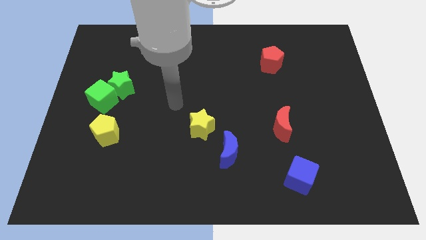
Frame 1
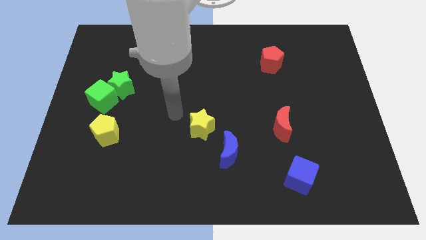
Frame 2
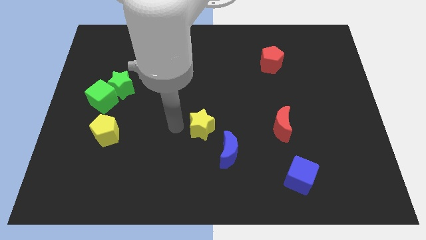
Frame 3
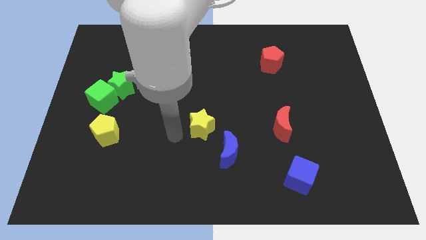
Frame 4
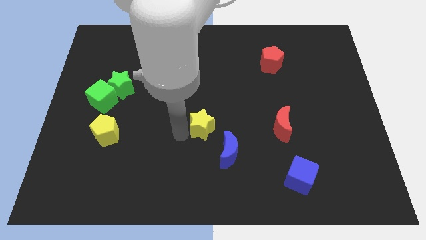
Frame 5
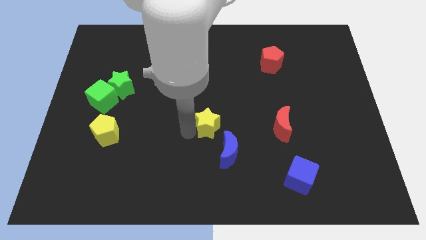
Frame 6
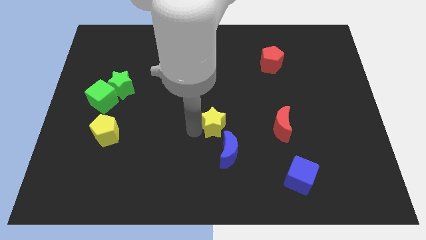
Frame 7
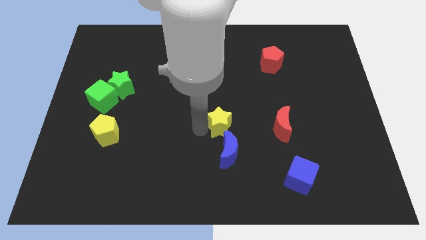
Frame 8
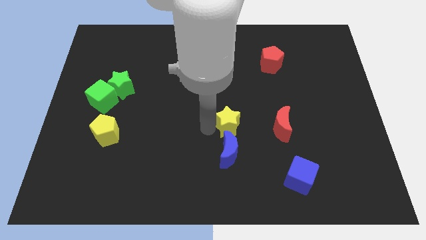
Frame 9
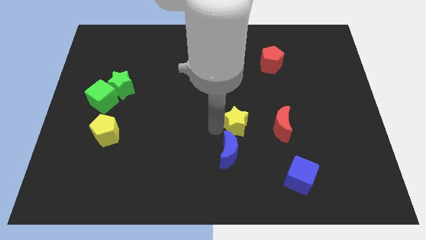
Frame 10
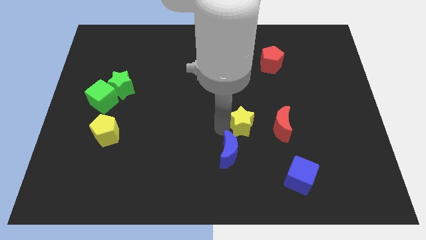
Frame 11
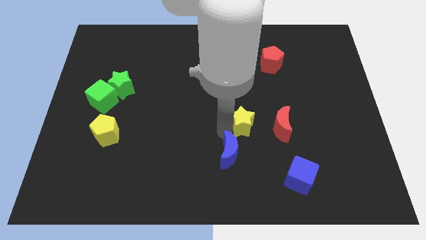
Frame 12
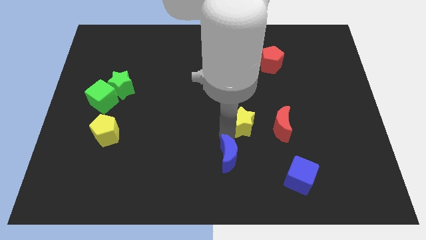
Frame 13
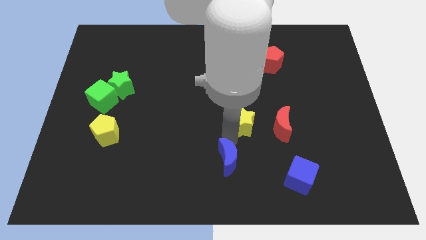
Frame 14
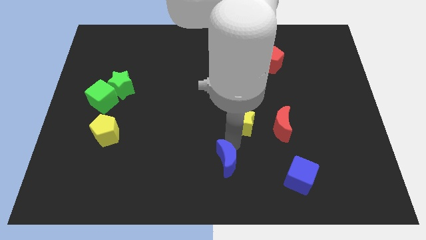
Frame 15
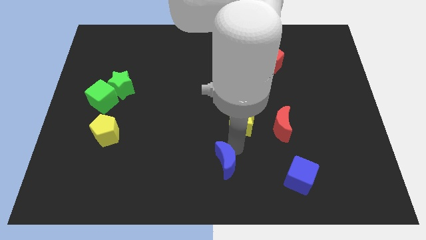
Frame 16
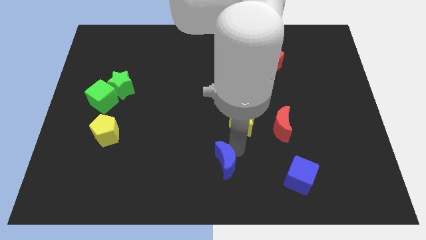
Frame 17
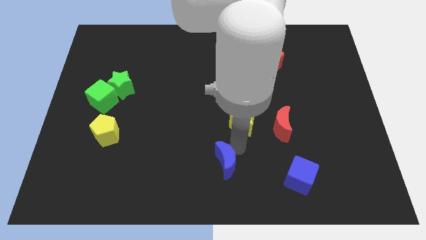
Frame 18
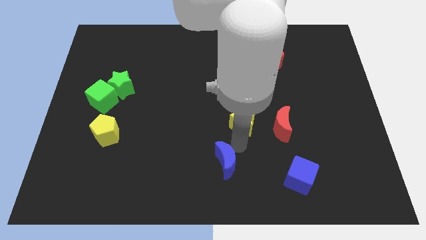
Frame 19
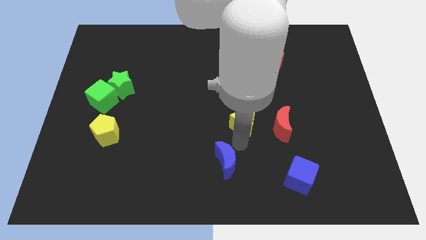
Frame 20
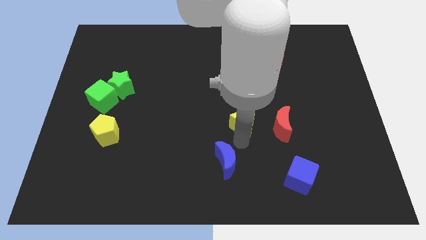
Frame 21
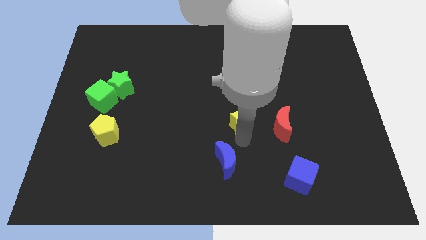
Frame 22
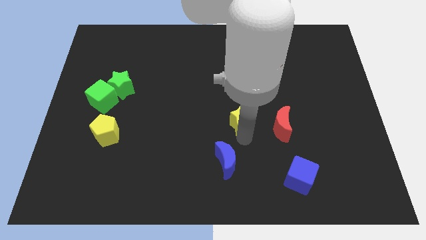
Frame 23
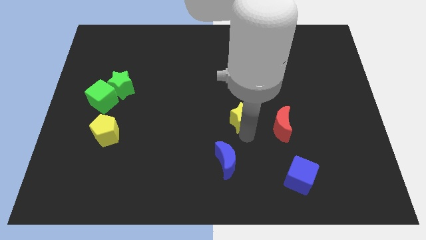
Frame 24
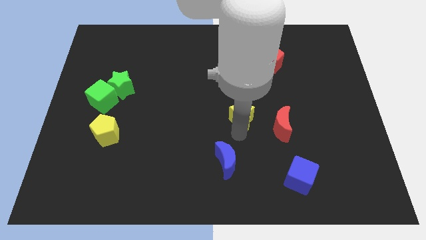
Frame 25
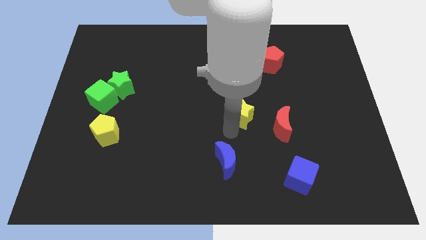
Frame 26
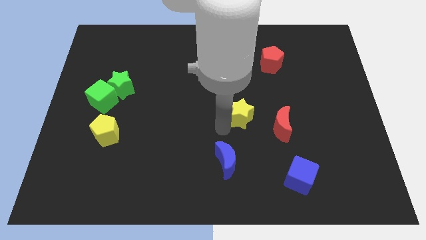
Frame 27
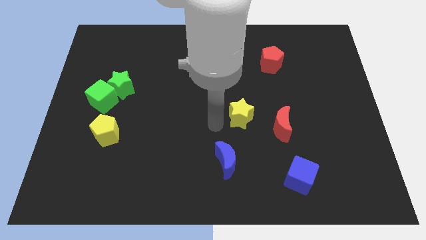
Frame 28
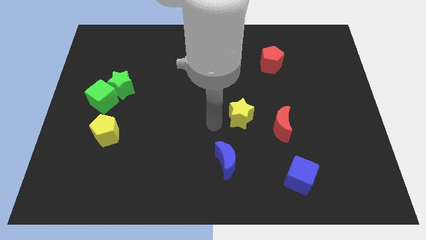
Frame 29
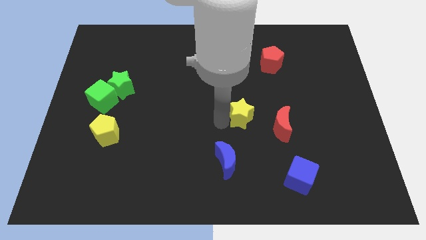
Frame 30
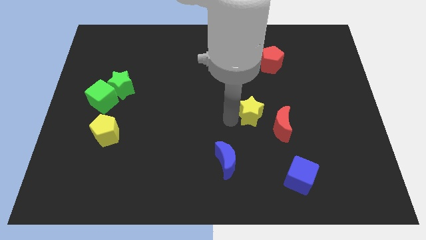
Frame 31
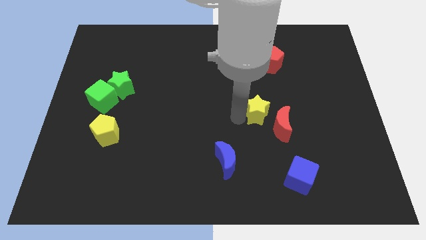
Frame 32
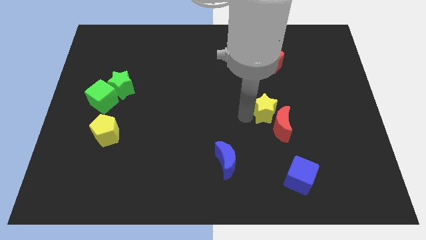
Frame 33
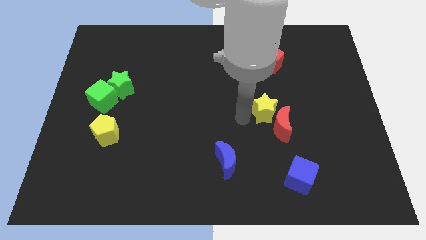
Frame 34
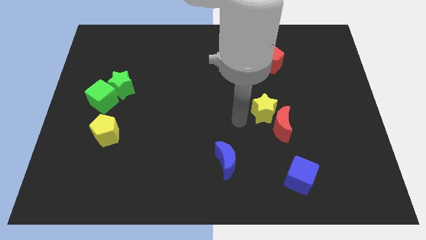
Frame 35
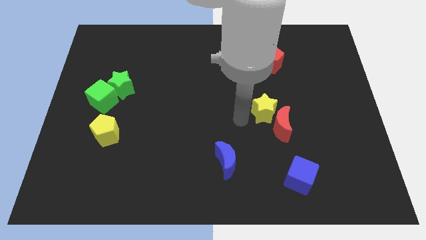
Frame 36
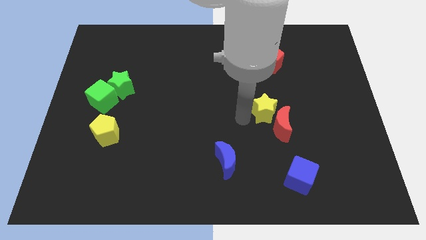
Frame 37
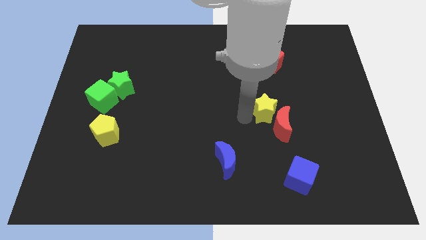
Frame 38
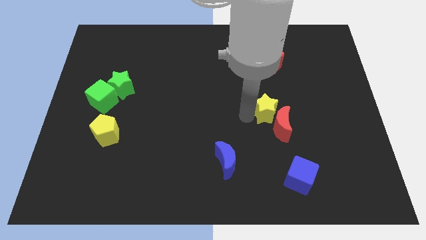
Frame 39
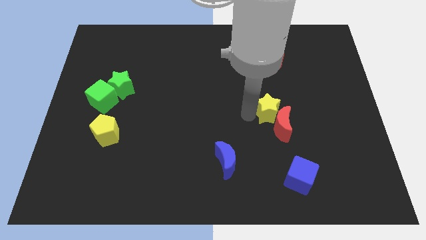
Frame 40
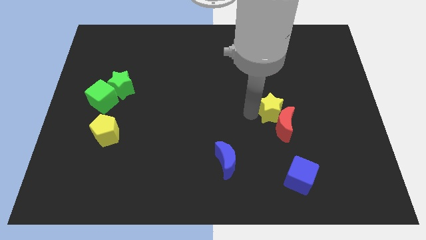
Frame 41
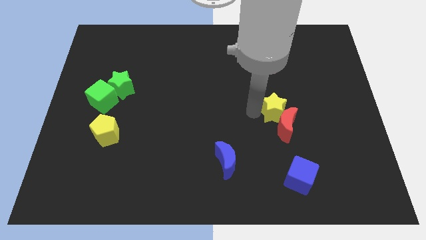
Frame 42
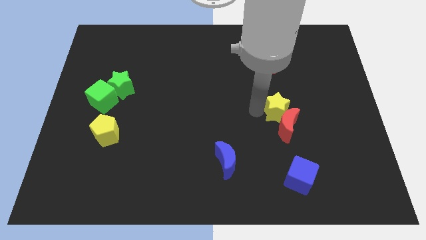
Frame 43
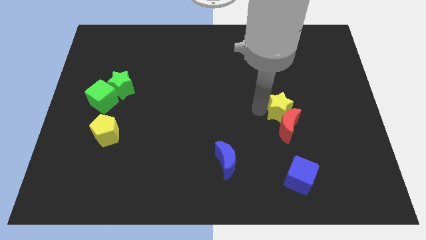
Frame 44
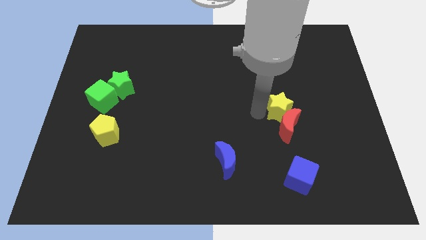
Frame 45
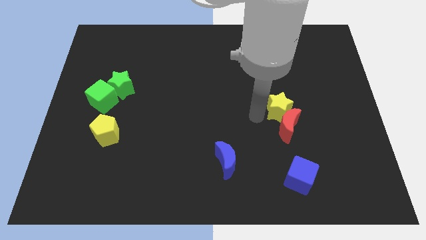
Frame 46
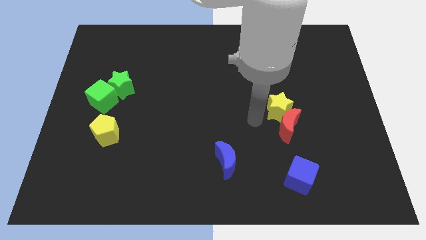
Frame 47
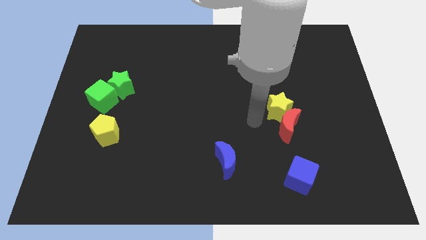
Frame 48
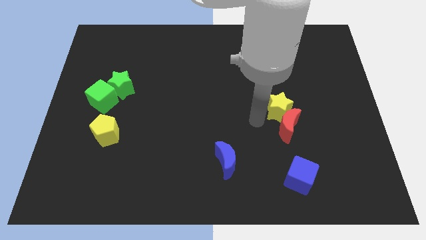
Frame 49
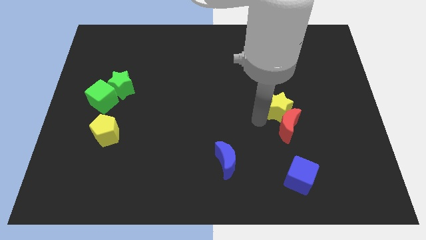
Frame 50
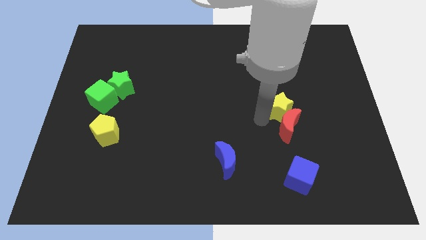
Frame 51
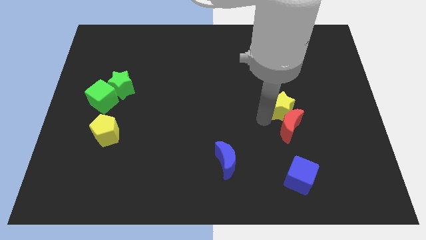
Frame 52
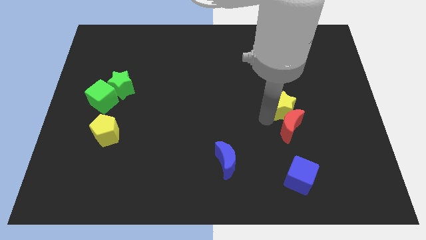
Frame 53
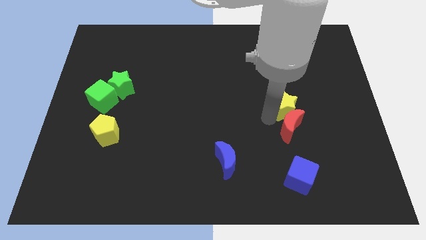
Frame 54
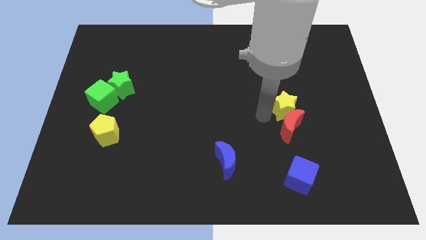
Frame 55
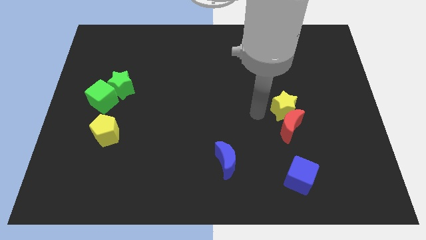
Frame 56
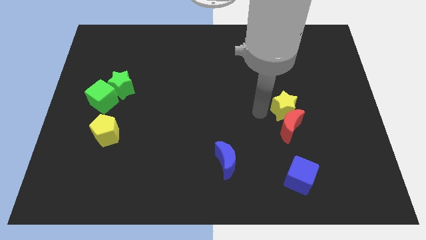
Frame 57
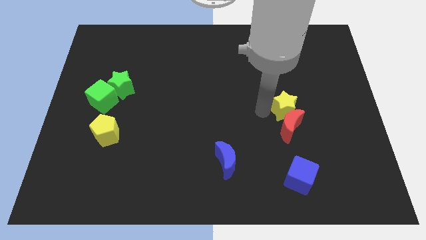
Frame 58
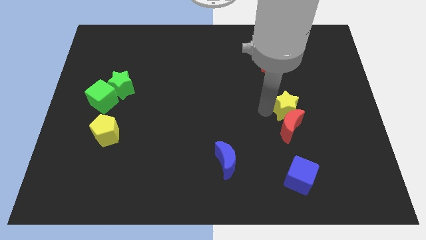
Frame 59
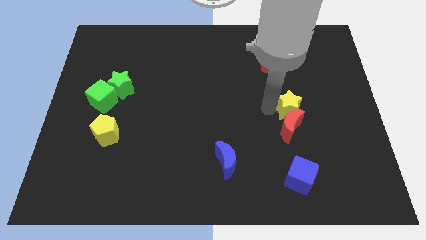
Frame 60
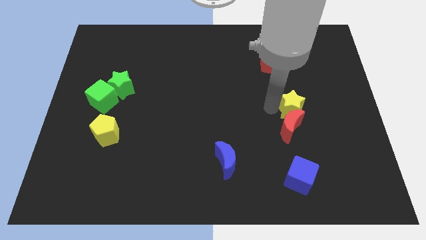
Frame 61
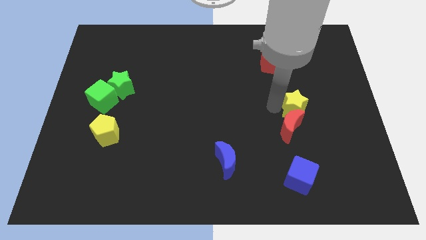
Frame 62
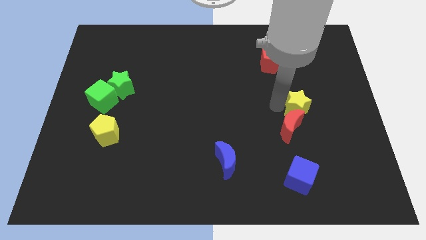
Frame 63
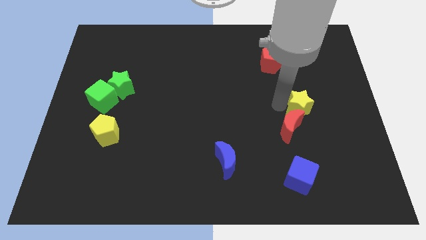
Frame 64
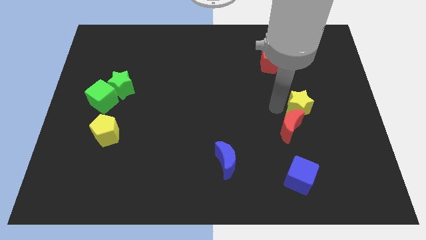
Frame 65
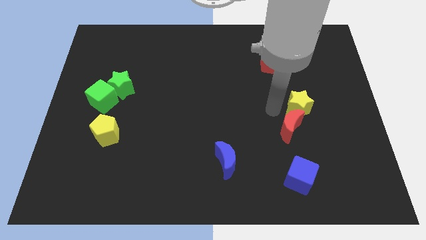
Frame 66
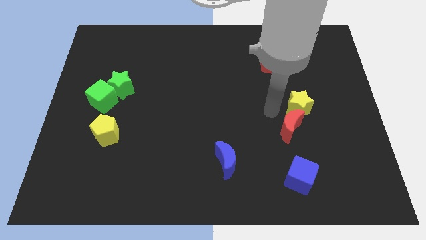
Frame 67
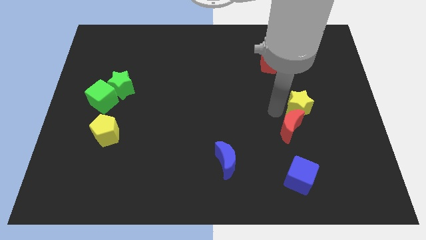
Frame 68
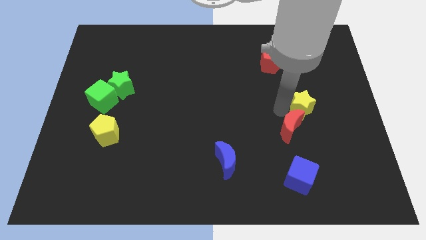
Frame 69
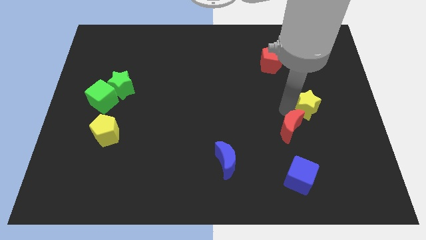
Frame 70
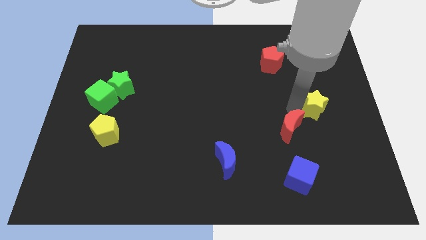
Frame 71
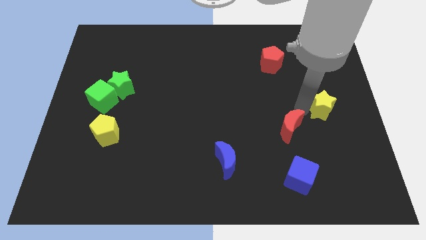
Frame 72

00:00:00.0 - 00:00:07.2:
push the yellow star to the right side

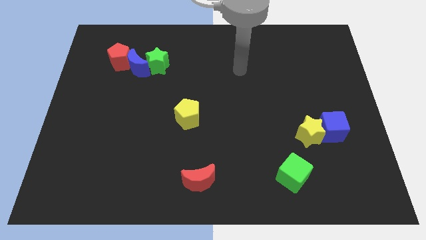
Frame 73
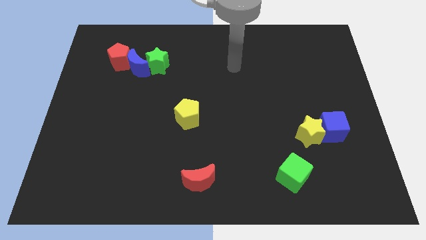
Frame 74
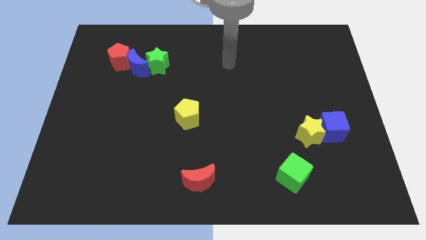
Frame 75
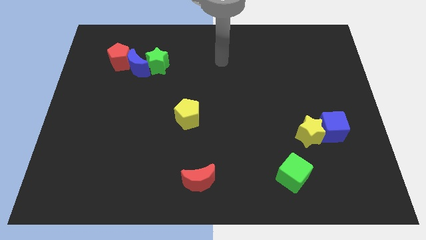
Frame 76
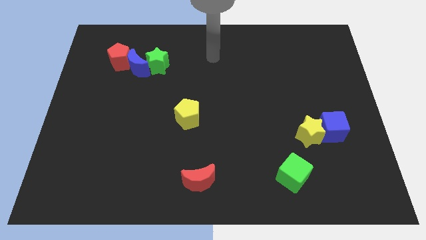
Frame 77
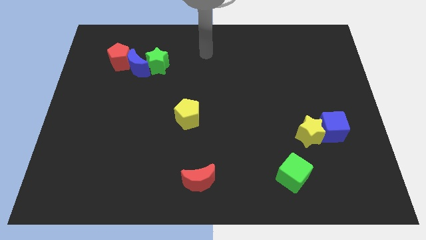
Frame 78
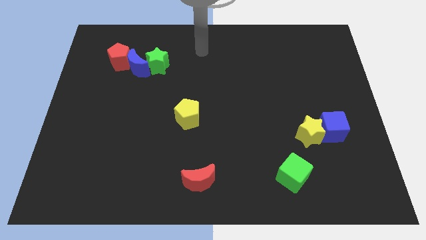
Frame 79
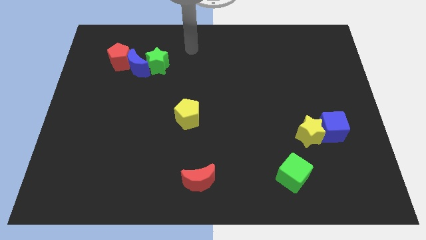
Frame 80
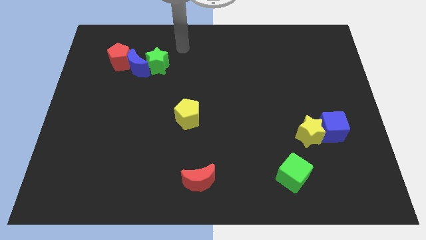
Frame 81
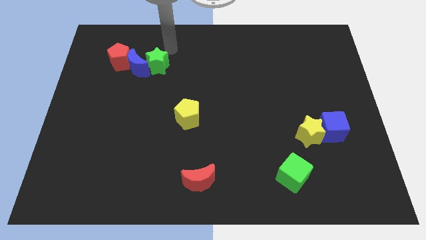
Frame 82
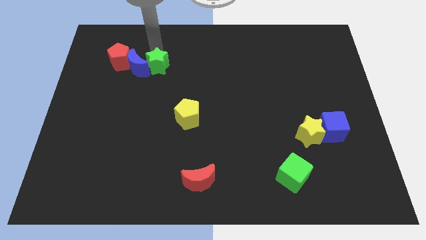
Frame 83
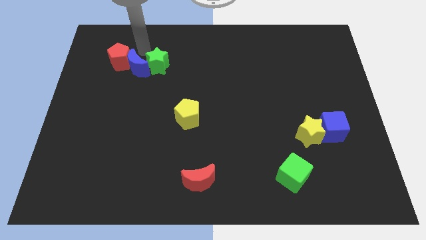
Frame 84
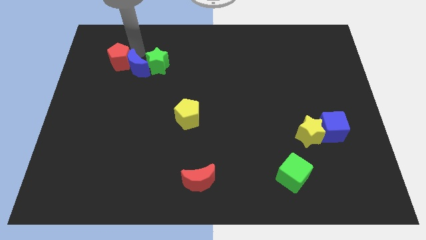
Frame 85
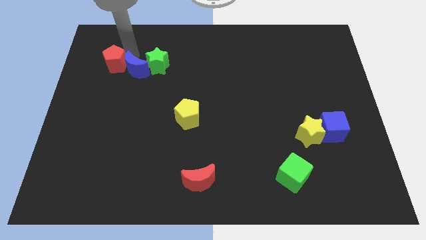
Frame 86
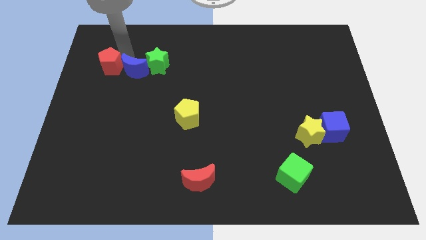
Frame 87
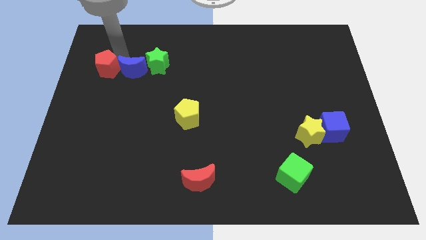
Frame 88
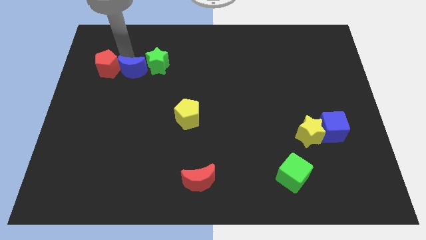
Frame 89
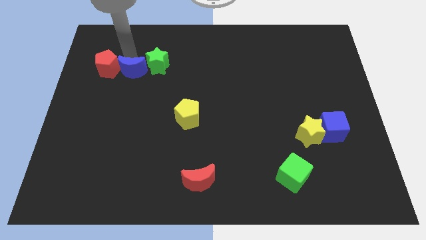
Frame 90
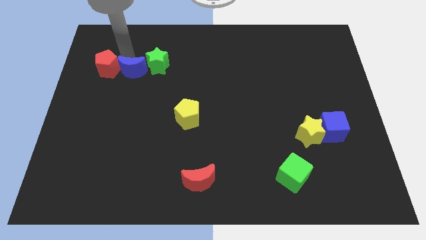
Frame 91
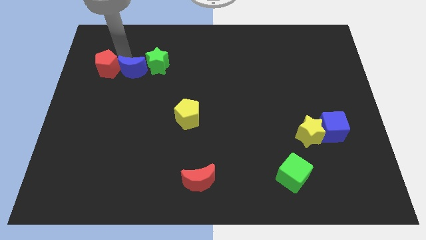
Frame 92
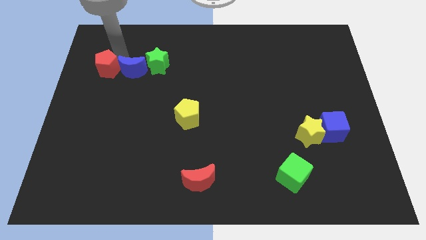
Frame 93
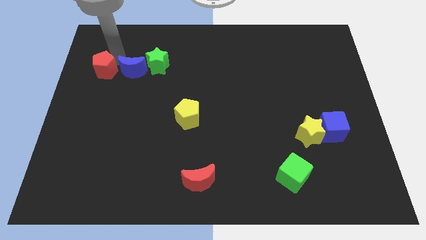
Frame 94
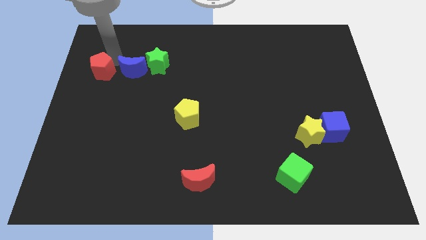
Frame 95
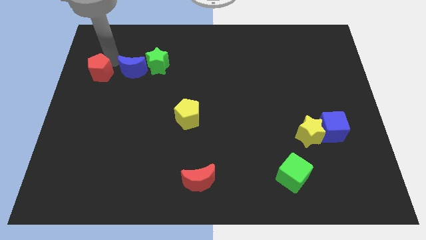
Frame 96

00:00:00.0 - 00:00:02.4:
slide the red pentagon to the center left
